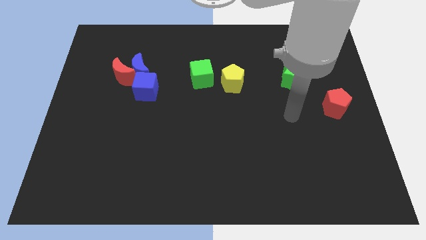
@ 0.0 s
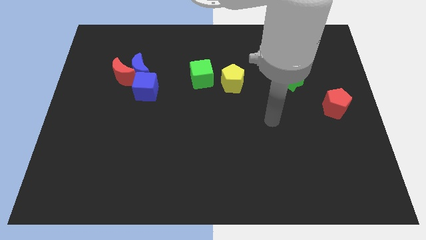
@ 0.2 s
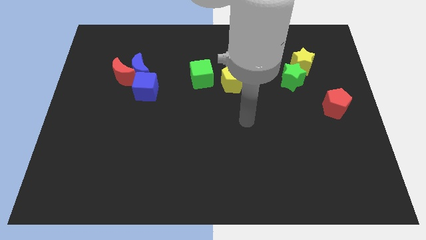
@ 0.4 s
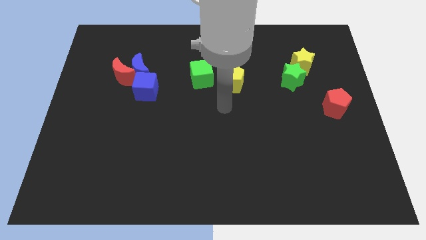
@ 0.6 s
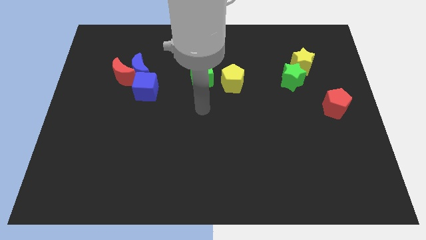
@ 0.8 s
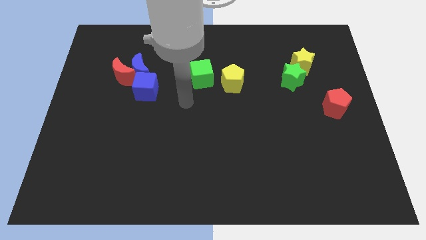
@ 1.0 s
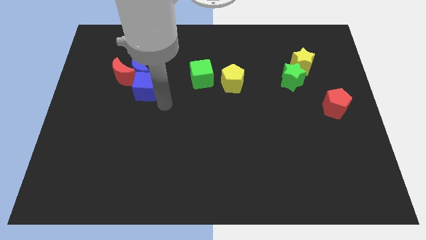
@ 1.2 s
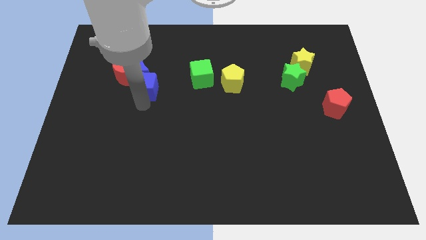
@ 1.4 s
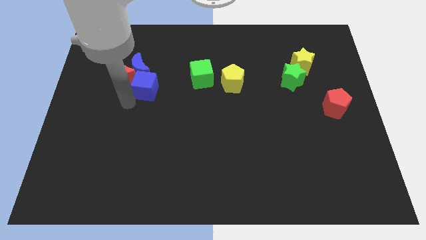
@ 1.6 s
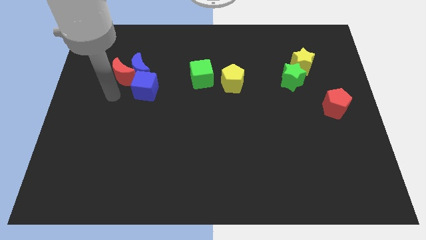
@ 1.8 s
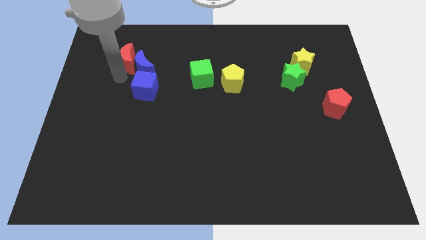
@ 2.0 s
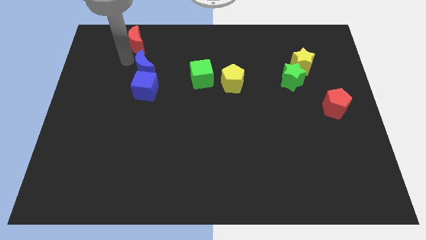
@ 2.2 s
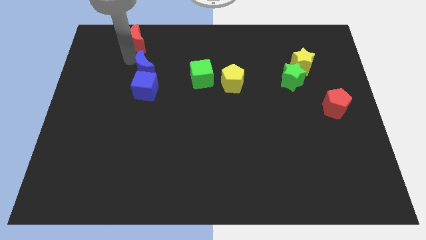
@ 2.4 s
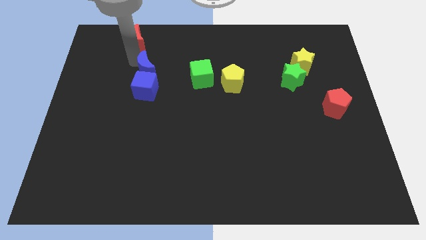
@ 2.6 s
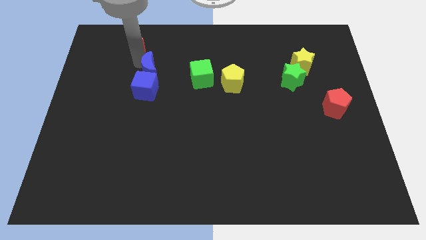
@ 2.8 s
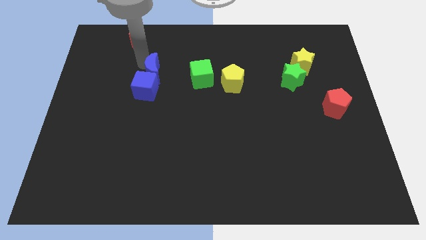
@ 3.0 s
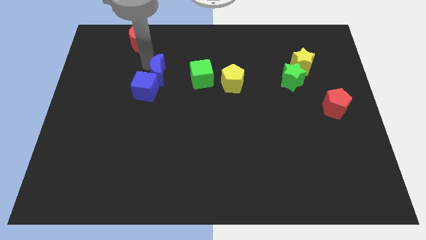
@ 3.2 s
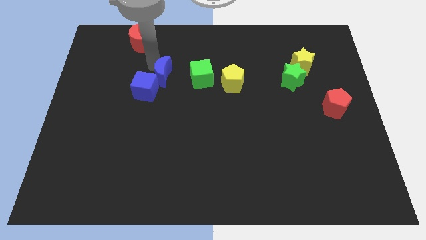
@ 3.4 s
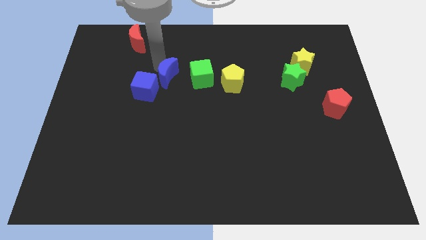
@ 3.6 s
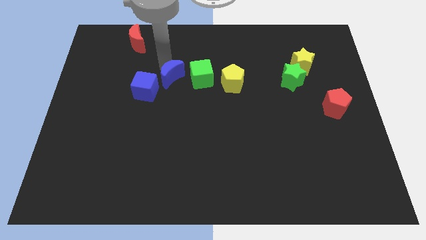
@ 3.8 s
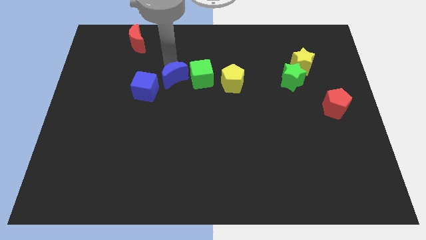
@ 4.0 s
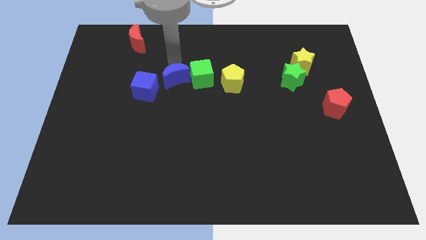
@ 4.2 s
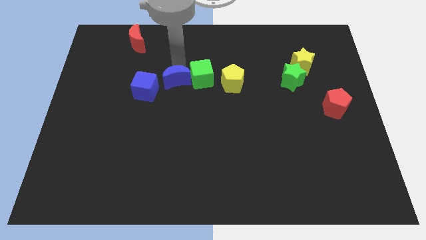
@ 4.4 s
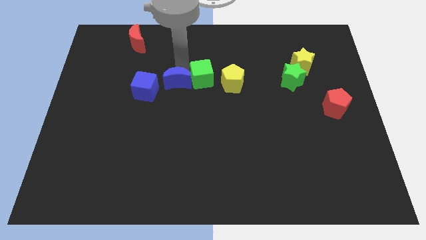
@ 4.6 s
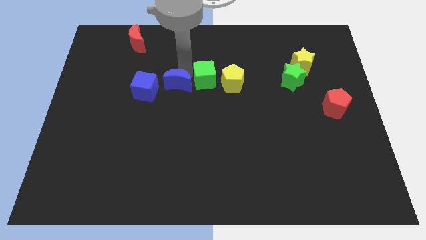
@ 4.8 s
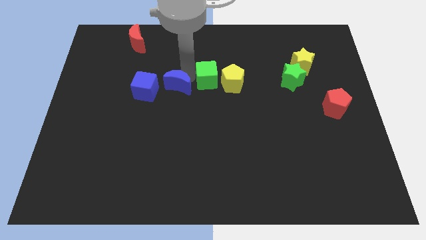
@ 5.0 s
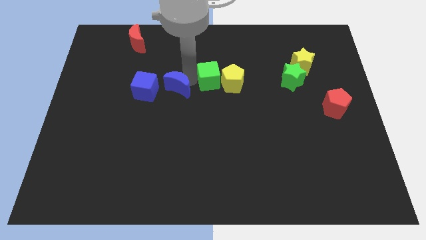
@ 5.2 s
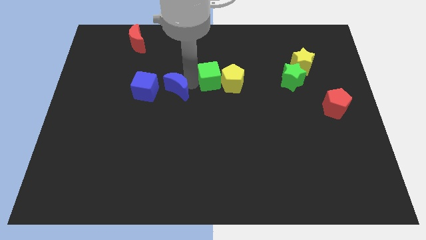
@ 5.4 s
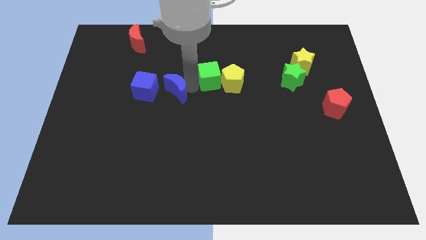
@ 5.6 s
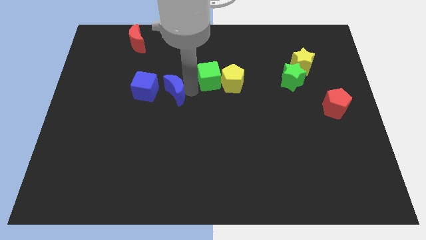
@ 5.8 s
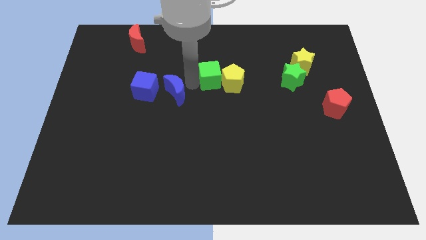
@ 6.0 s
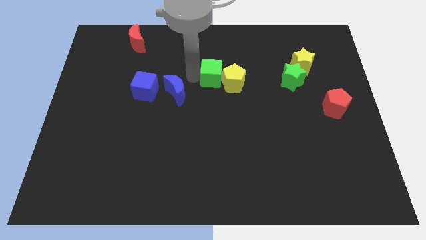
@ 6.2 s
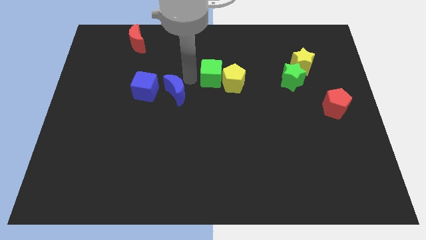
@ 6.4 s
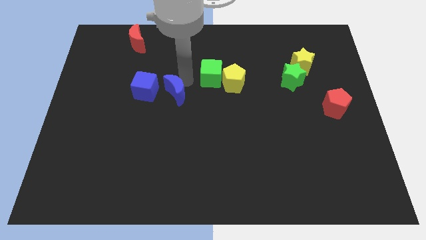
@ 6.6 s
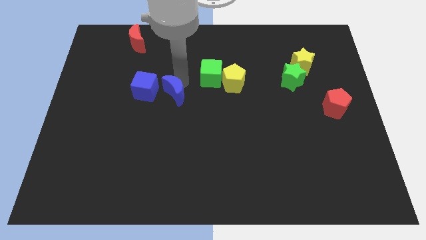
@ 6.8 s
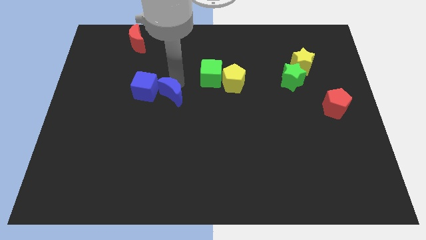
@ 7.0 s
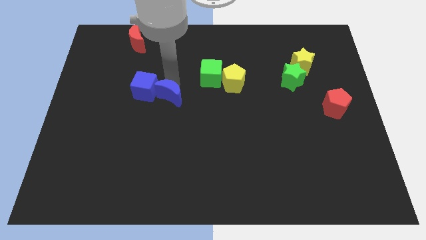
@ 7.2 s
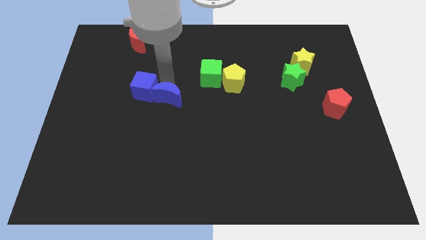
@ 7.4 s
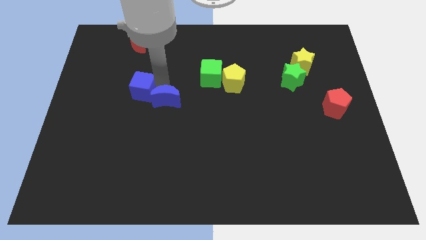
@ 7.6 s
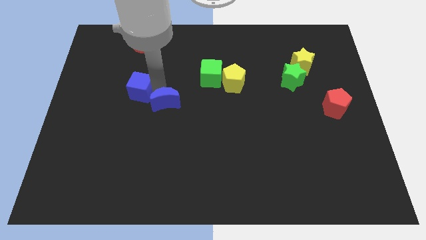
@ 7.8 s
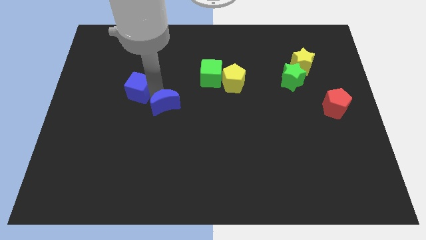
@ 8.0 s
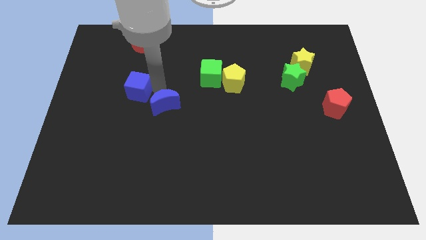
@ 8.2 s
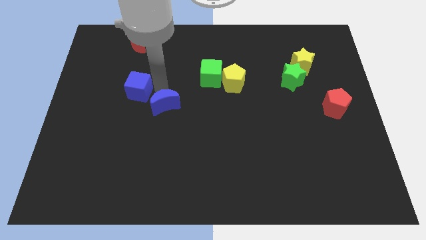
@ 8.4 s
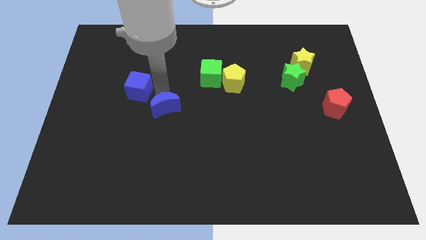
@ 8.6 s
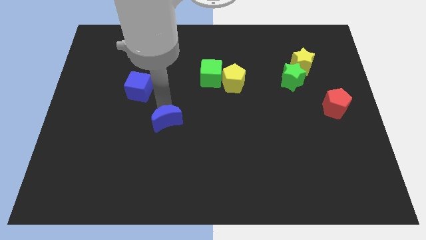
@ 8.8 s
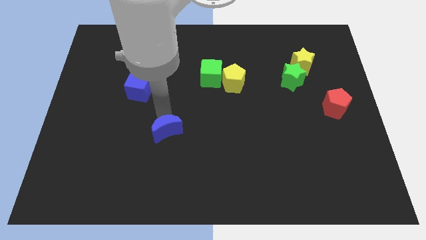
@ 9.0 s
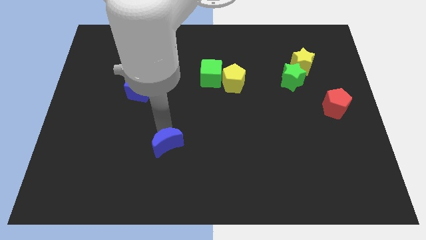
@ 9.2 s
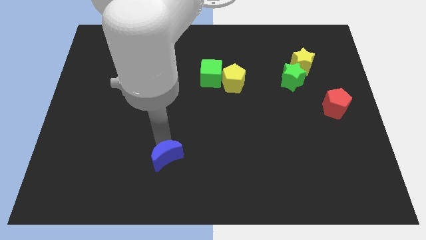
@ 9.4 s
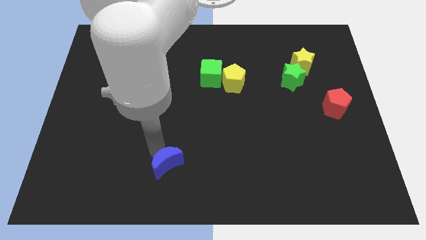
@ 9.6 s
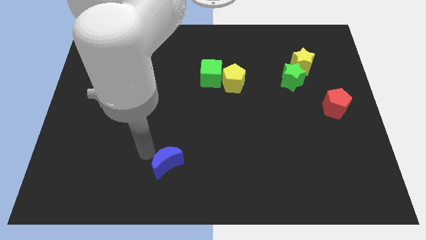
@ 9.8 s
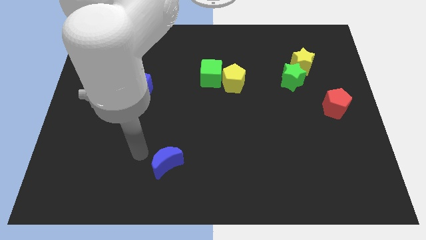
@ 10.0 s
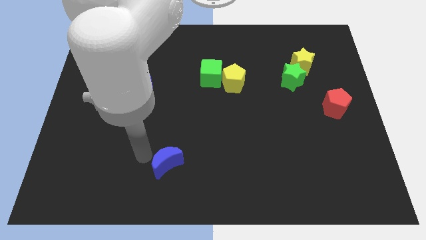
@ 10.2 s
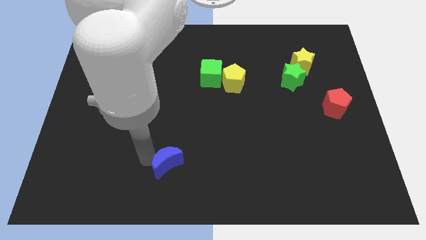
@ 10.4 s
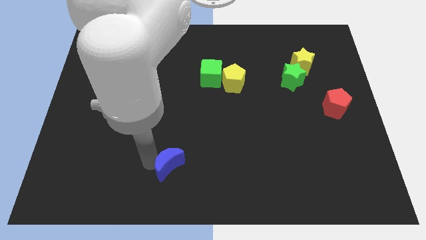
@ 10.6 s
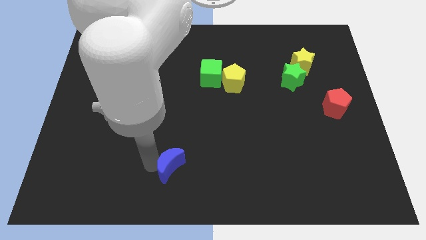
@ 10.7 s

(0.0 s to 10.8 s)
move the blue moon to the bottom

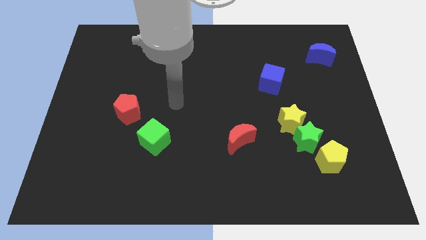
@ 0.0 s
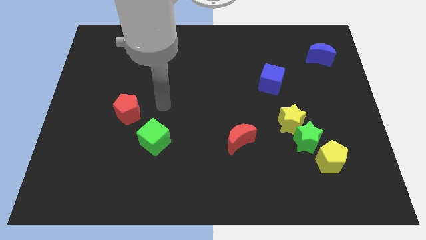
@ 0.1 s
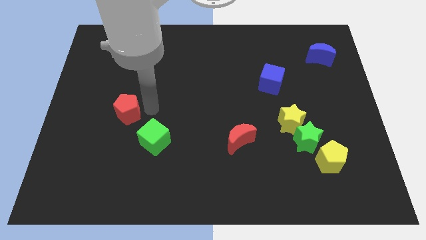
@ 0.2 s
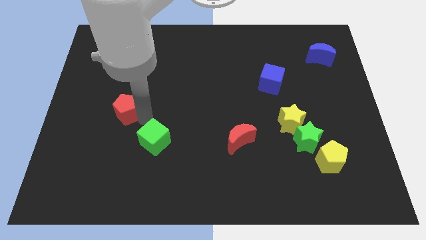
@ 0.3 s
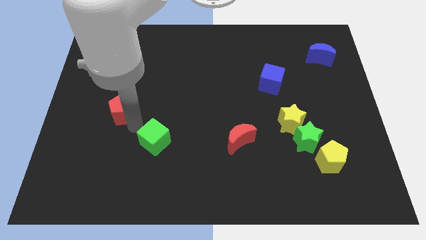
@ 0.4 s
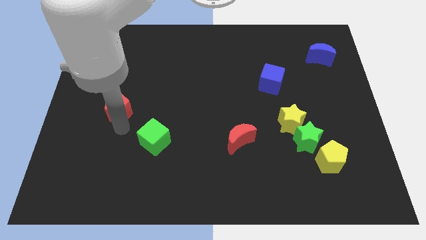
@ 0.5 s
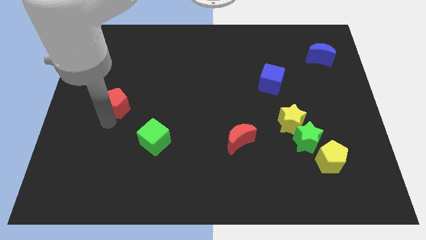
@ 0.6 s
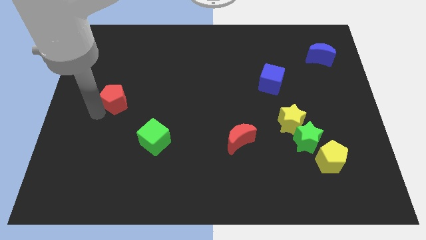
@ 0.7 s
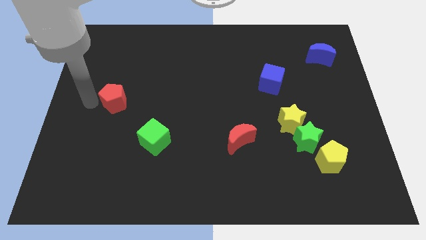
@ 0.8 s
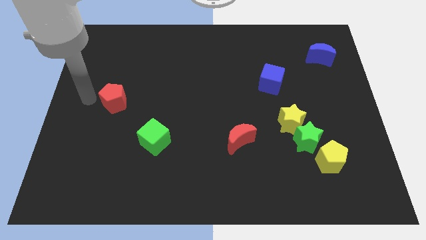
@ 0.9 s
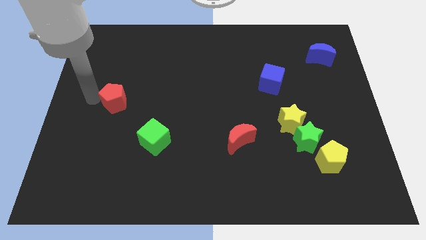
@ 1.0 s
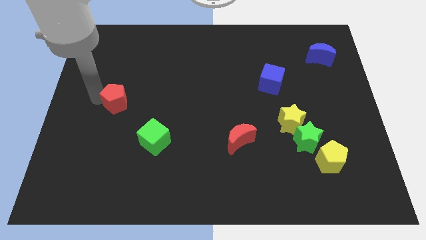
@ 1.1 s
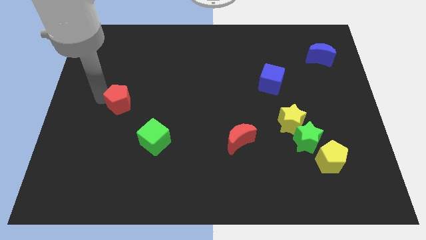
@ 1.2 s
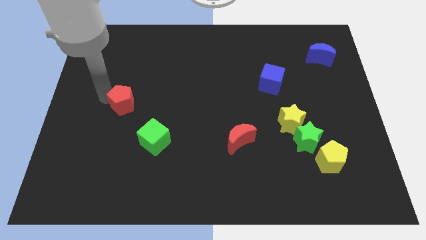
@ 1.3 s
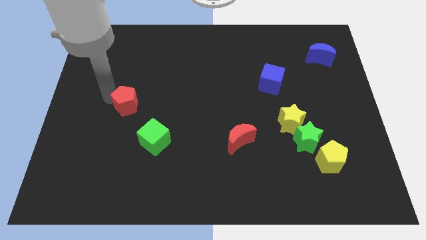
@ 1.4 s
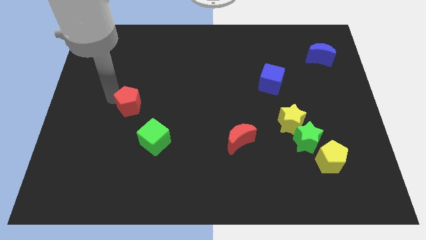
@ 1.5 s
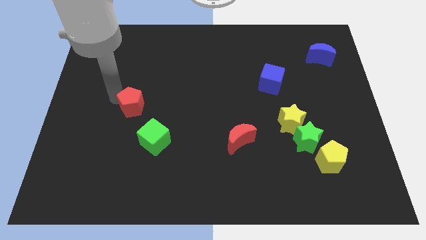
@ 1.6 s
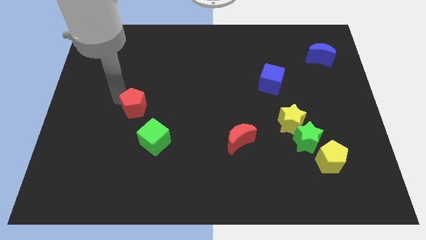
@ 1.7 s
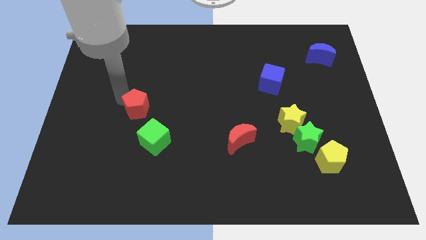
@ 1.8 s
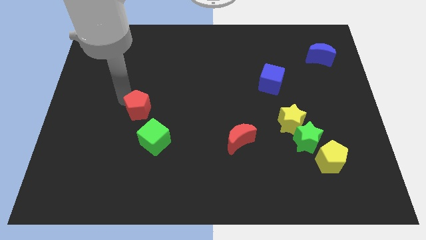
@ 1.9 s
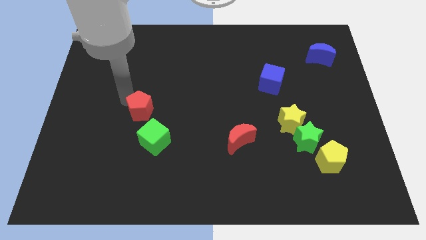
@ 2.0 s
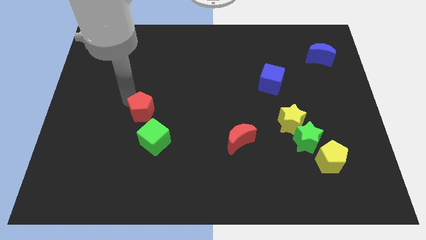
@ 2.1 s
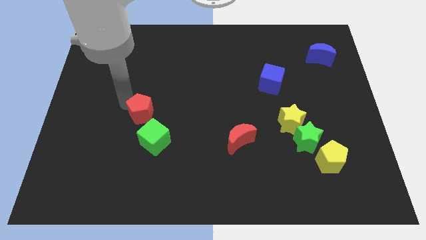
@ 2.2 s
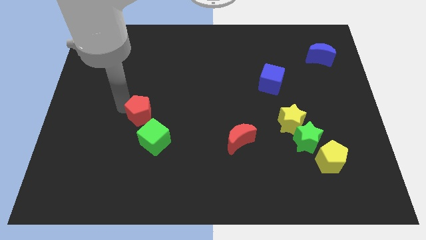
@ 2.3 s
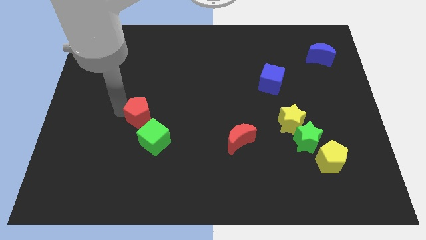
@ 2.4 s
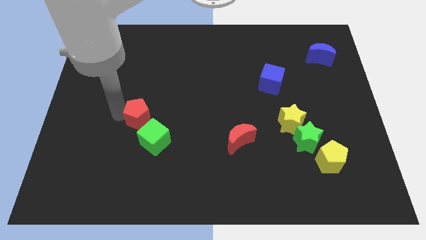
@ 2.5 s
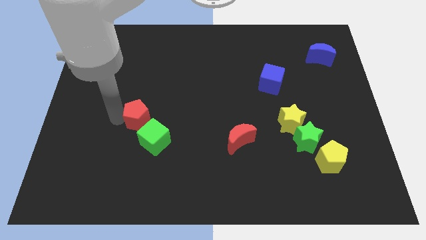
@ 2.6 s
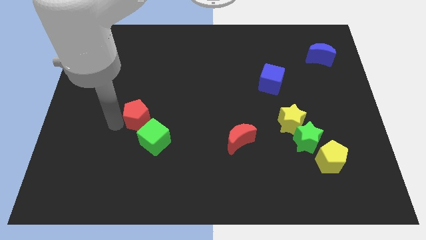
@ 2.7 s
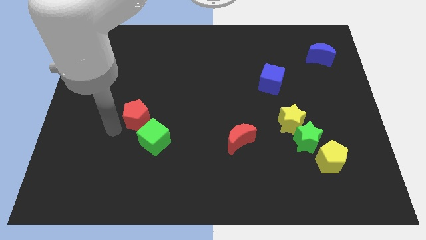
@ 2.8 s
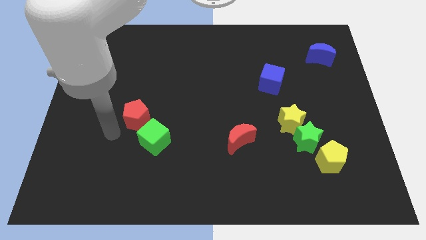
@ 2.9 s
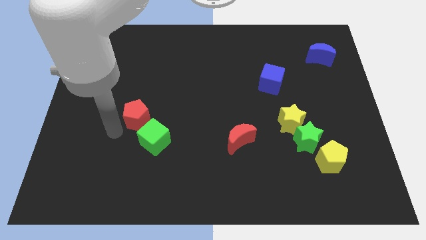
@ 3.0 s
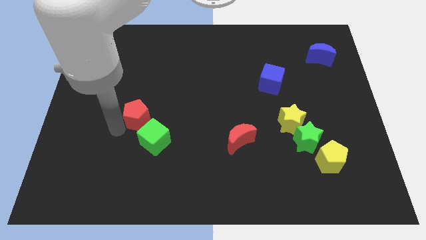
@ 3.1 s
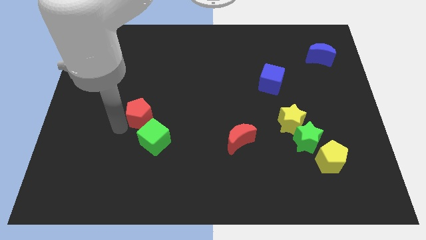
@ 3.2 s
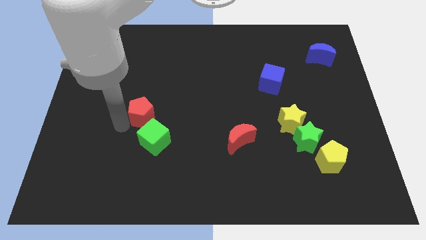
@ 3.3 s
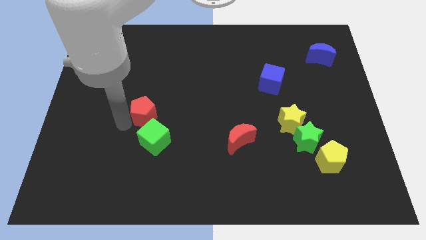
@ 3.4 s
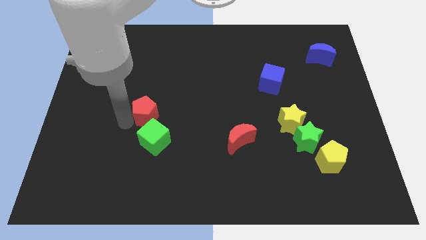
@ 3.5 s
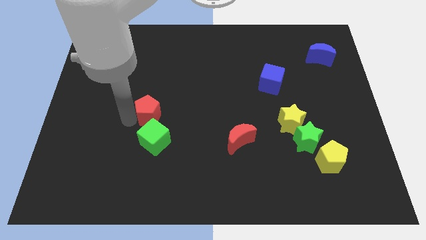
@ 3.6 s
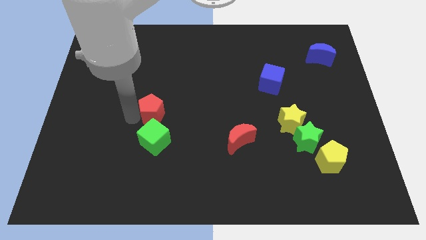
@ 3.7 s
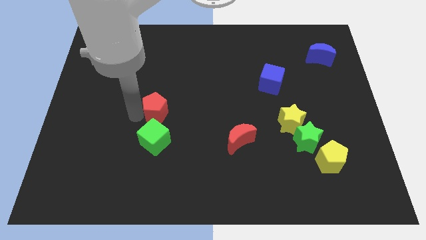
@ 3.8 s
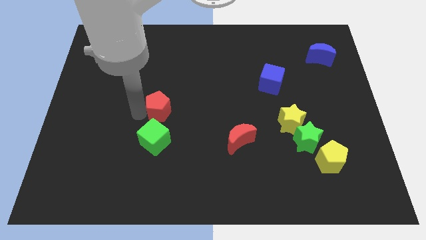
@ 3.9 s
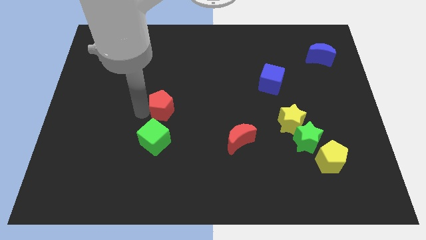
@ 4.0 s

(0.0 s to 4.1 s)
put the red pentagon to the middle
